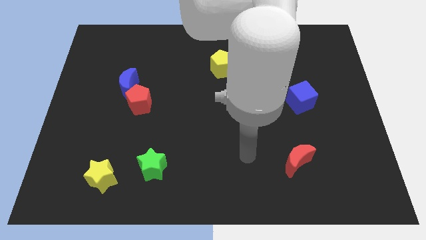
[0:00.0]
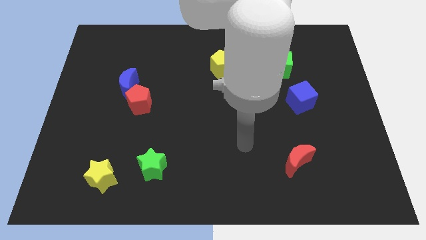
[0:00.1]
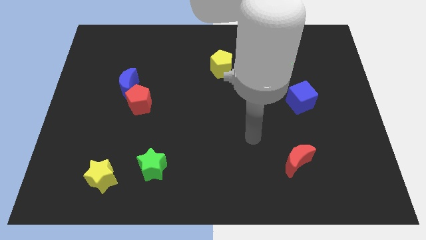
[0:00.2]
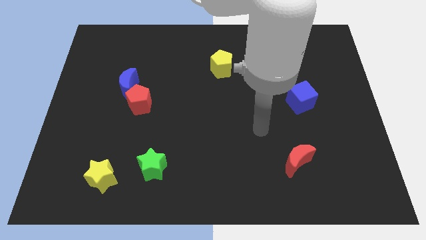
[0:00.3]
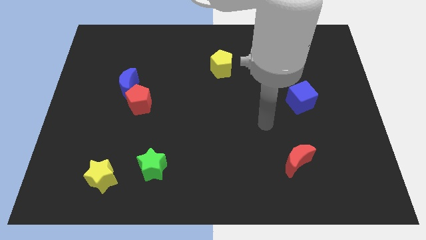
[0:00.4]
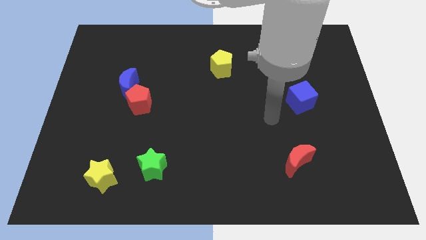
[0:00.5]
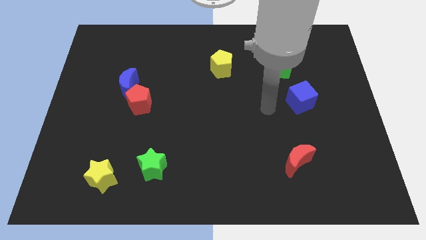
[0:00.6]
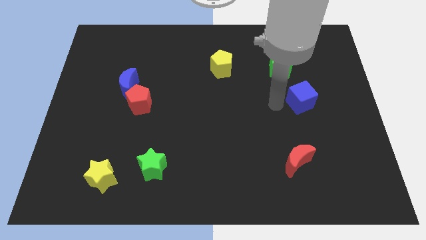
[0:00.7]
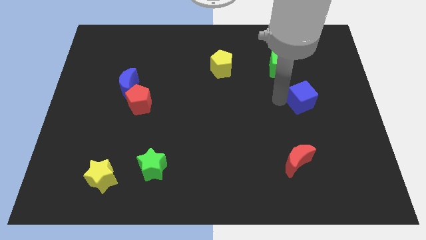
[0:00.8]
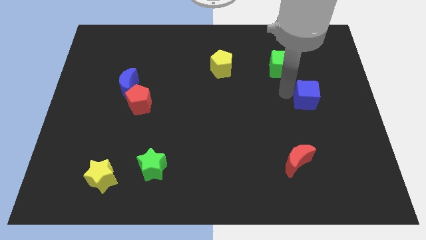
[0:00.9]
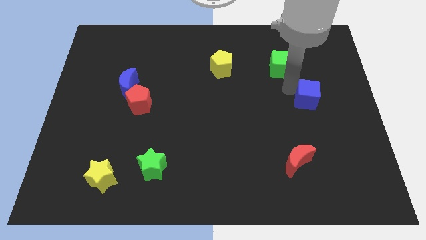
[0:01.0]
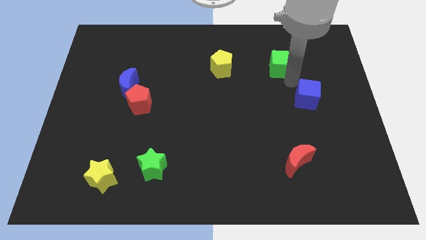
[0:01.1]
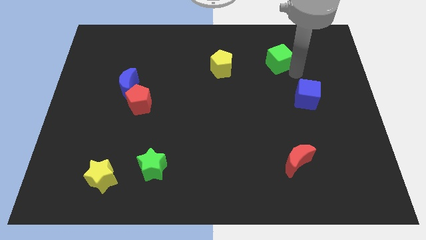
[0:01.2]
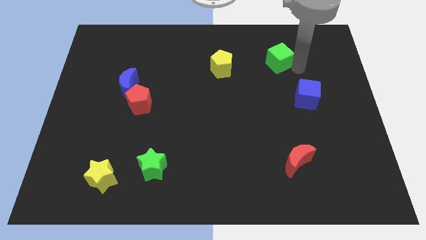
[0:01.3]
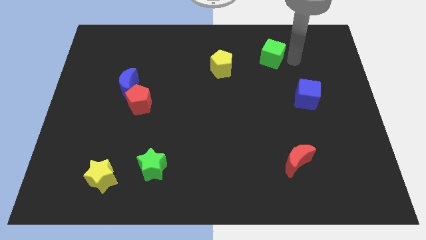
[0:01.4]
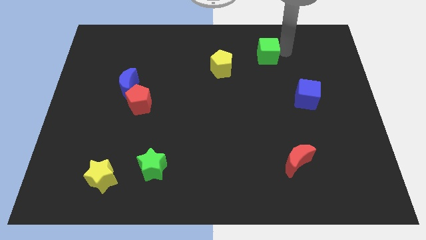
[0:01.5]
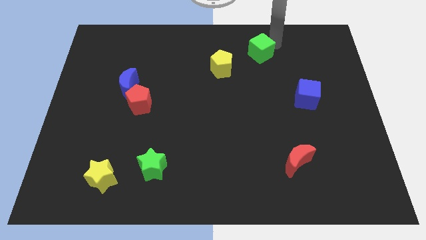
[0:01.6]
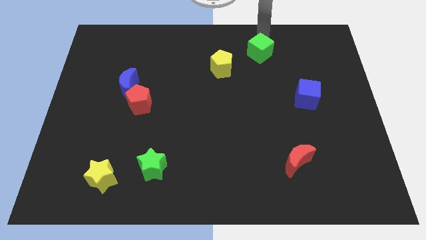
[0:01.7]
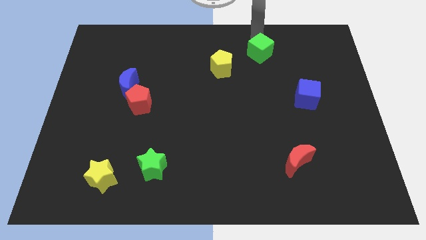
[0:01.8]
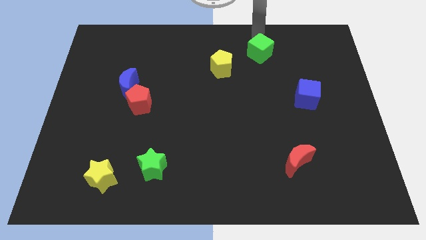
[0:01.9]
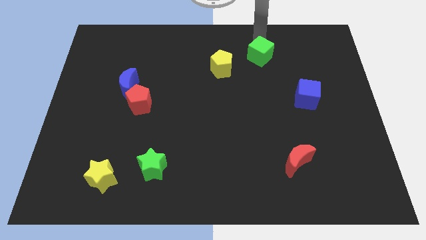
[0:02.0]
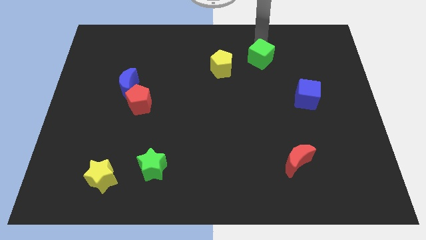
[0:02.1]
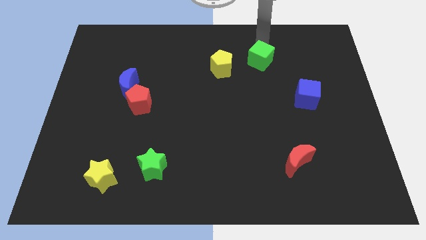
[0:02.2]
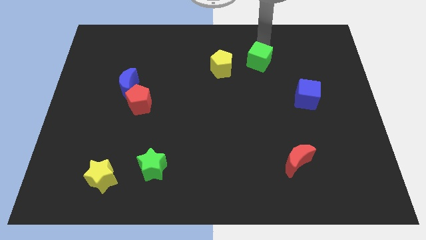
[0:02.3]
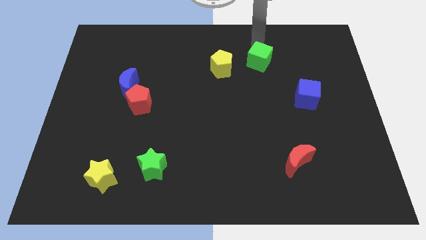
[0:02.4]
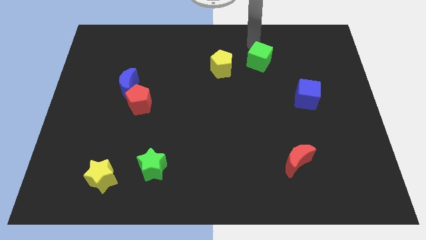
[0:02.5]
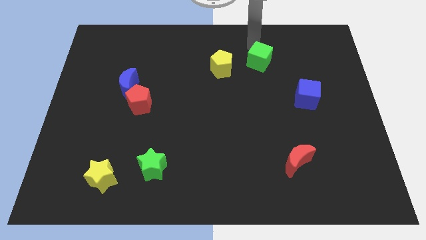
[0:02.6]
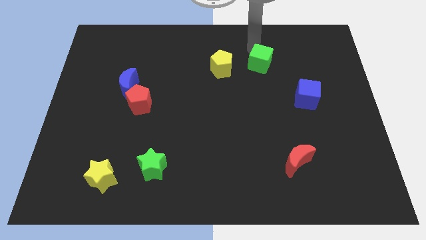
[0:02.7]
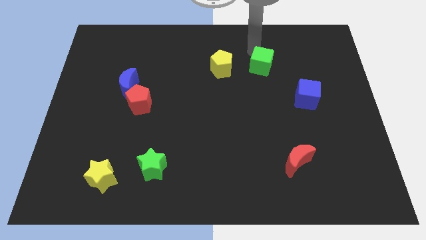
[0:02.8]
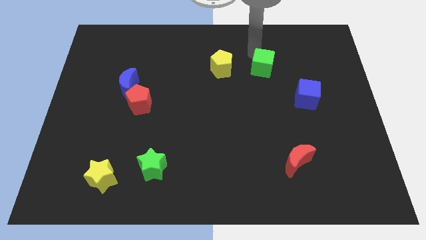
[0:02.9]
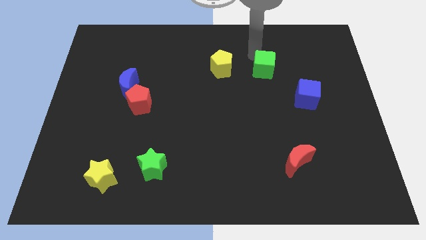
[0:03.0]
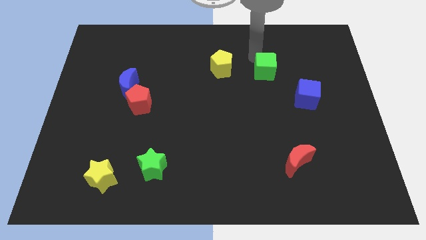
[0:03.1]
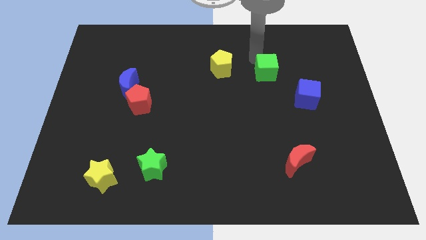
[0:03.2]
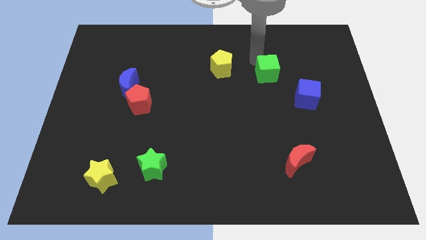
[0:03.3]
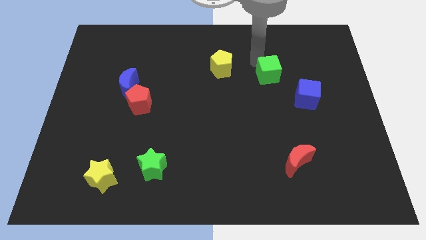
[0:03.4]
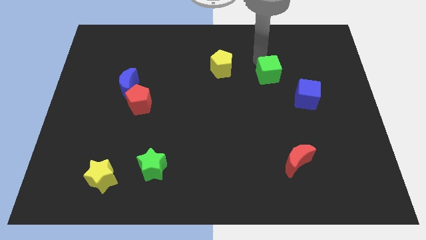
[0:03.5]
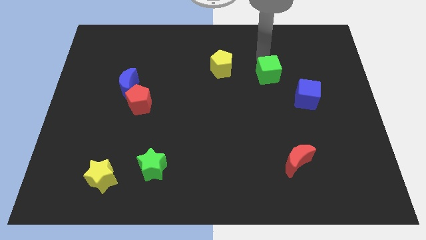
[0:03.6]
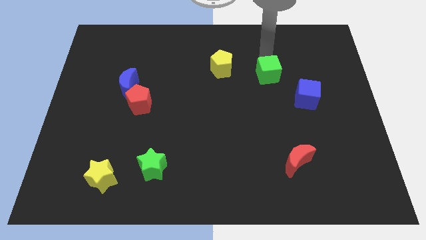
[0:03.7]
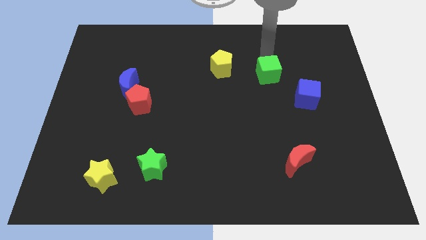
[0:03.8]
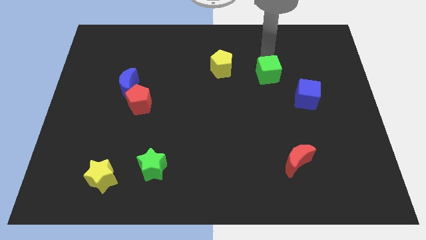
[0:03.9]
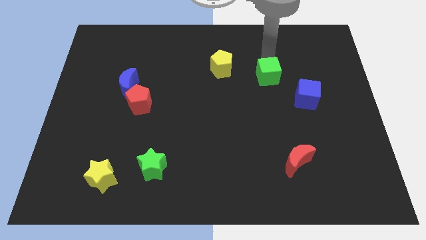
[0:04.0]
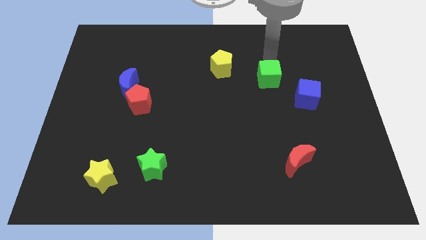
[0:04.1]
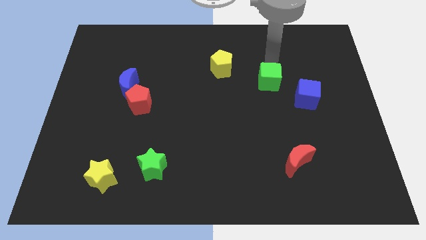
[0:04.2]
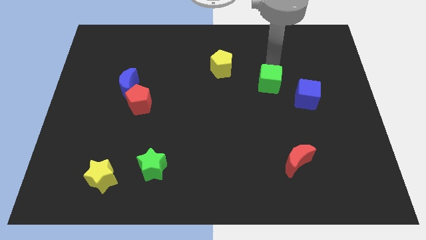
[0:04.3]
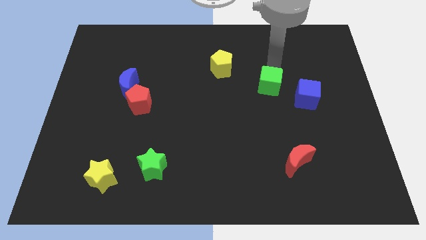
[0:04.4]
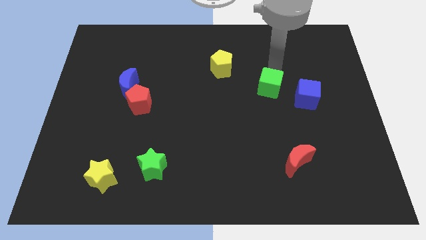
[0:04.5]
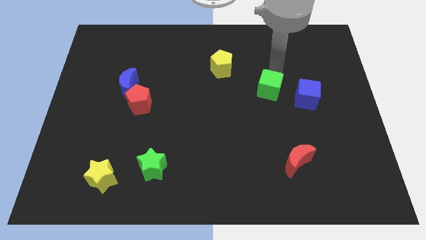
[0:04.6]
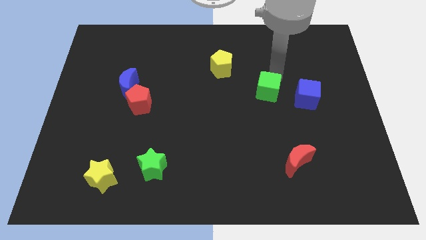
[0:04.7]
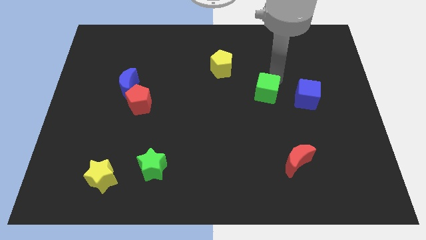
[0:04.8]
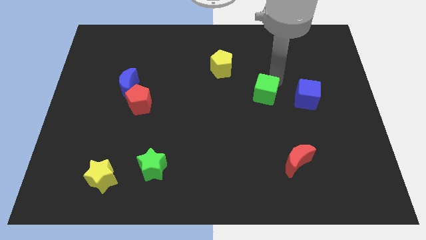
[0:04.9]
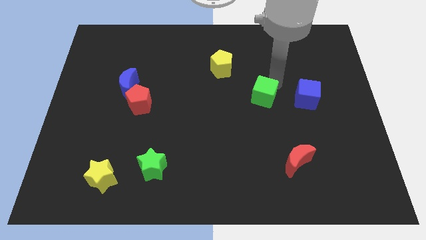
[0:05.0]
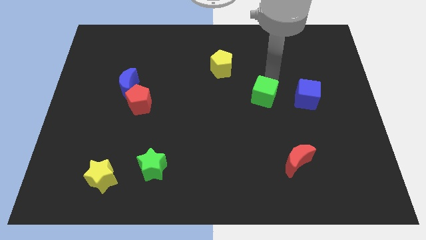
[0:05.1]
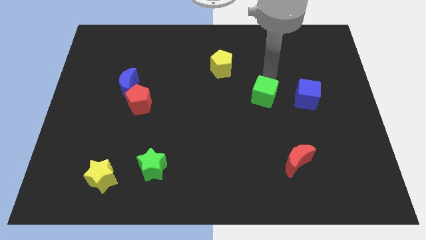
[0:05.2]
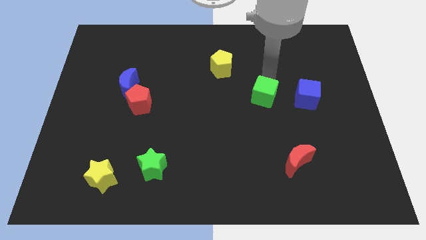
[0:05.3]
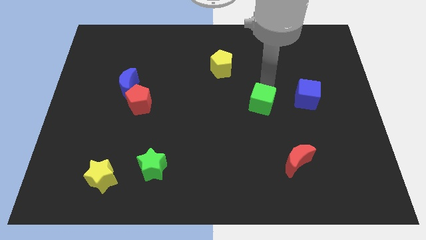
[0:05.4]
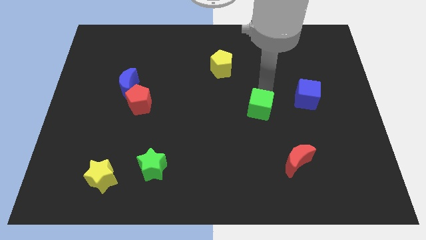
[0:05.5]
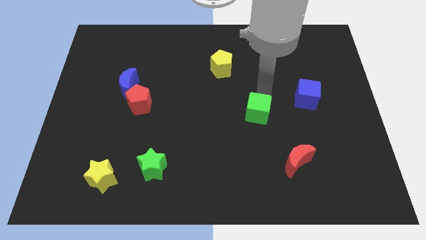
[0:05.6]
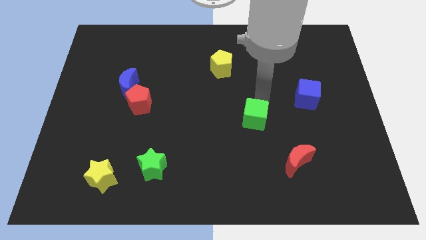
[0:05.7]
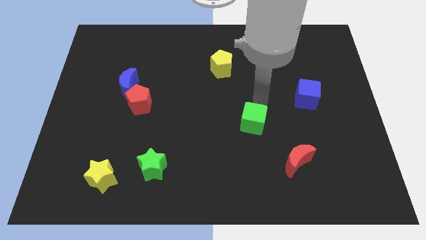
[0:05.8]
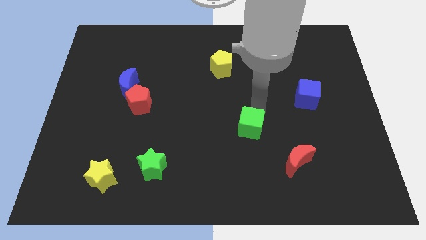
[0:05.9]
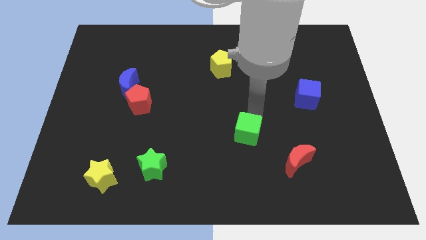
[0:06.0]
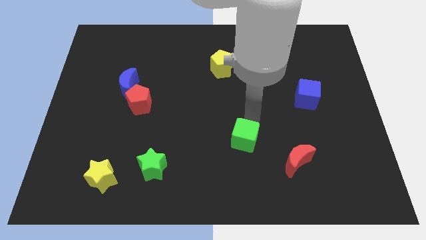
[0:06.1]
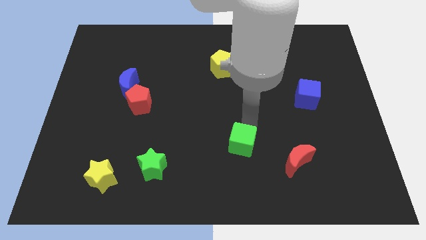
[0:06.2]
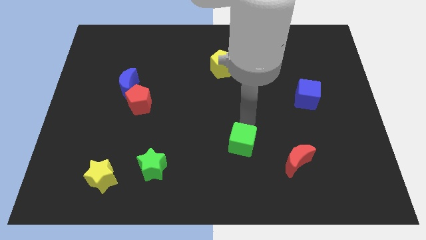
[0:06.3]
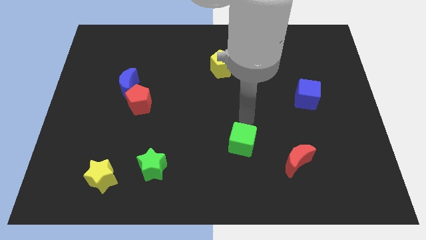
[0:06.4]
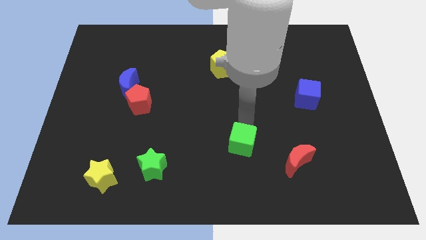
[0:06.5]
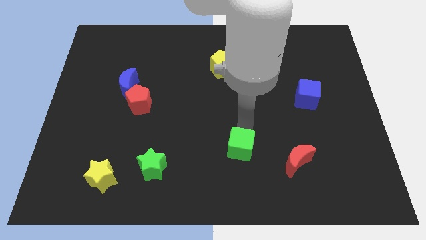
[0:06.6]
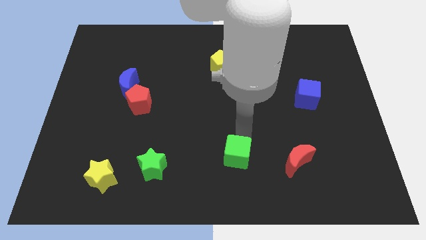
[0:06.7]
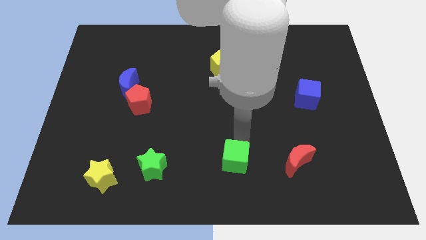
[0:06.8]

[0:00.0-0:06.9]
move the green cube to the bottom side
